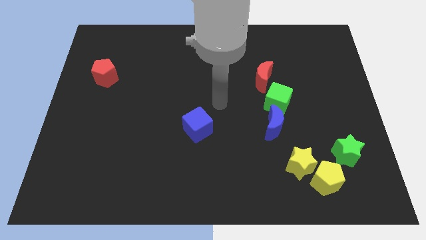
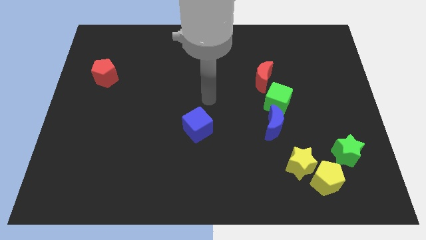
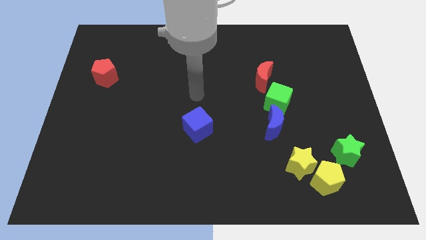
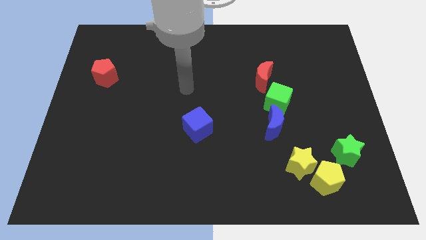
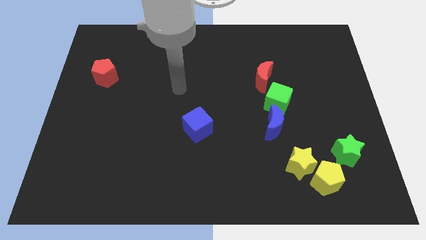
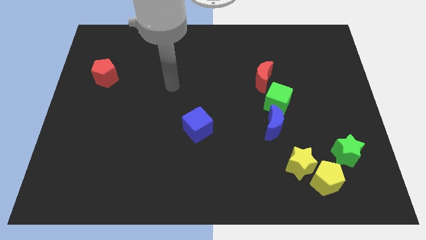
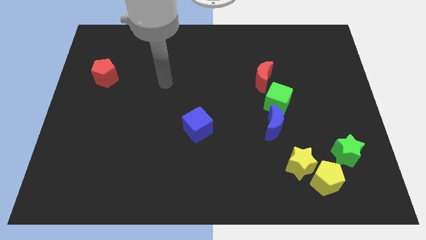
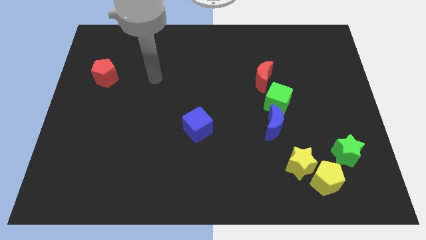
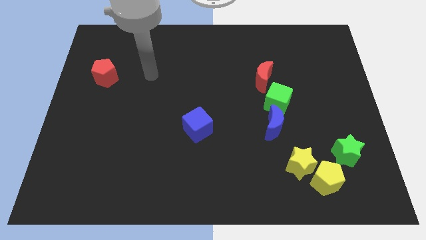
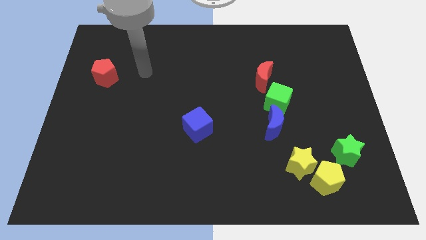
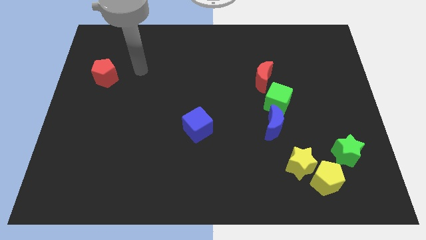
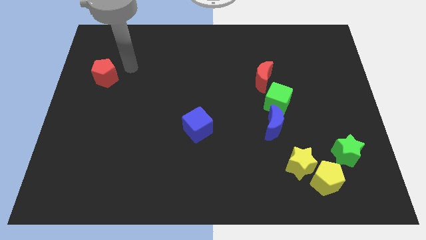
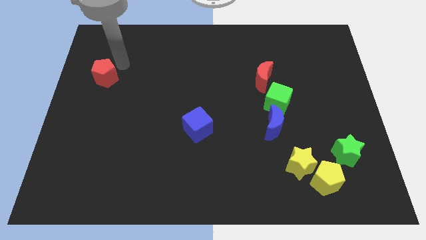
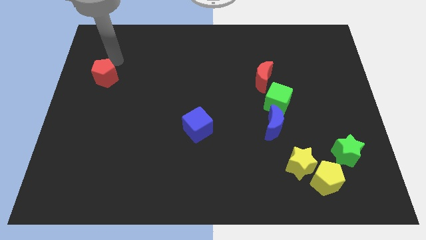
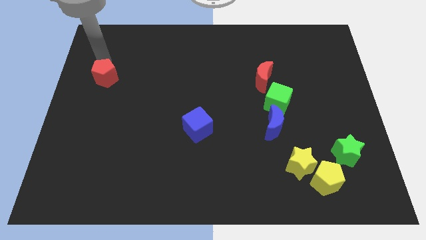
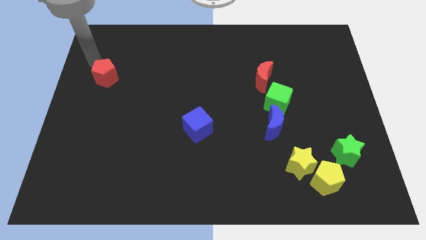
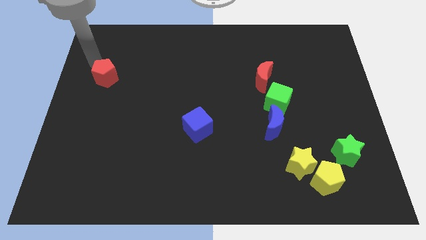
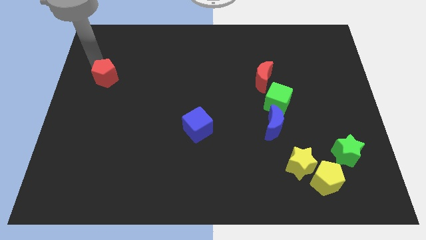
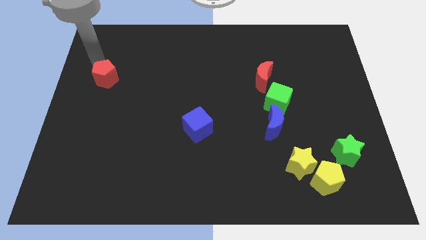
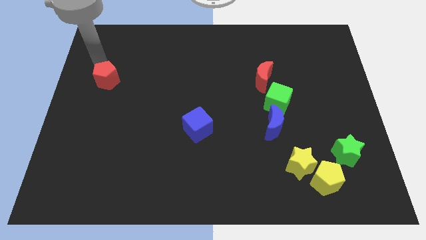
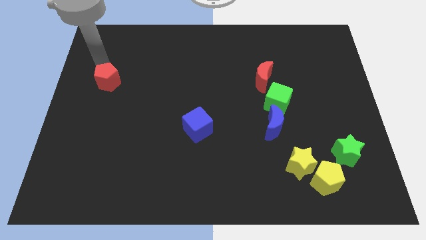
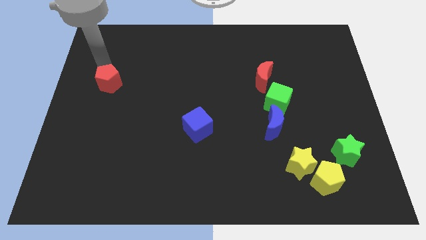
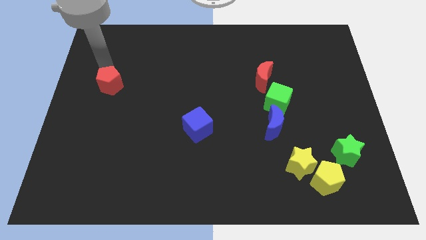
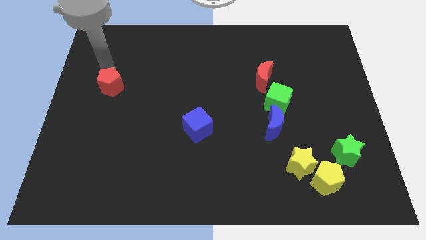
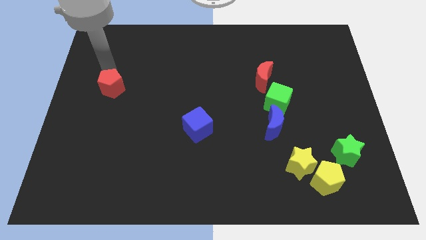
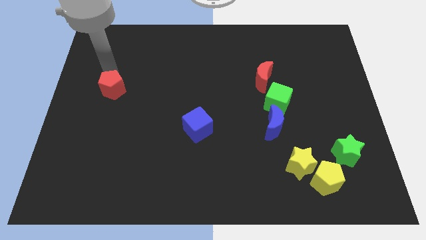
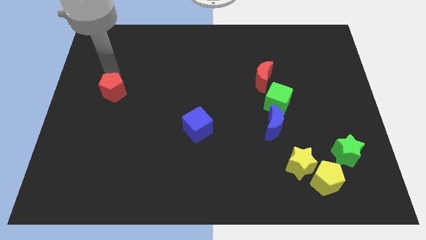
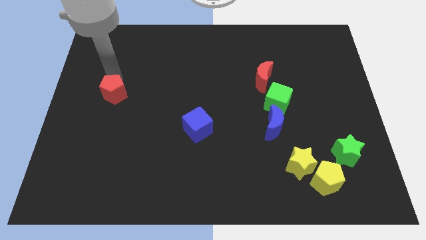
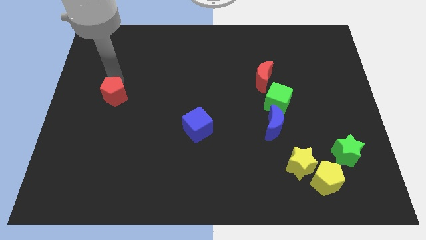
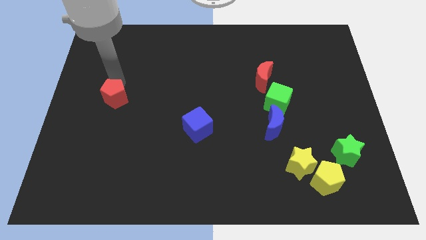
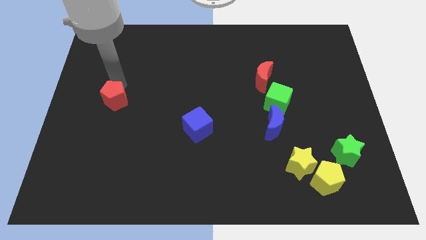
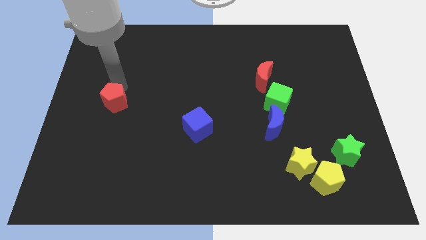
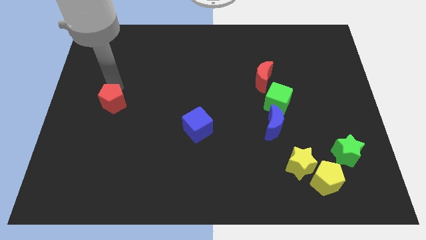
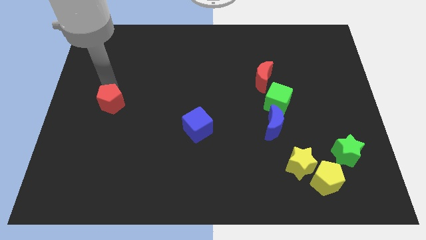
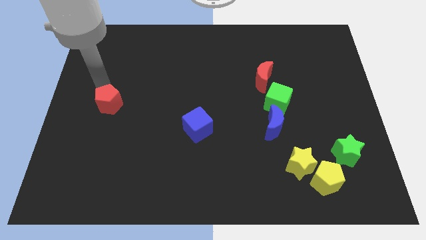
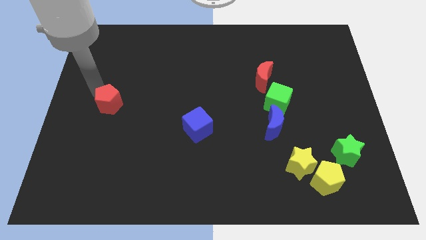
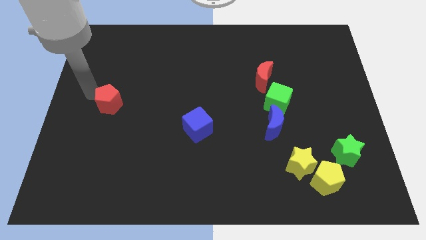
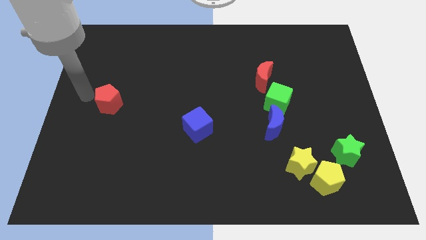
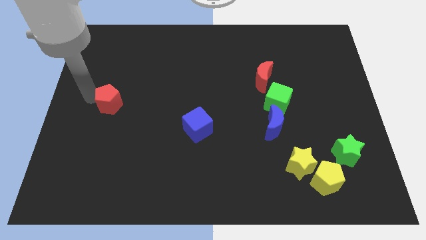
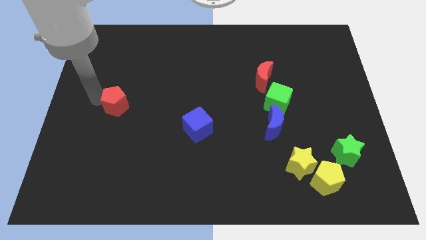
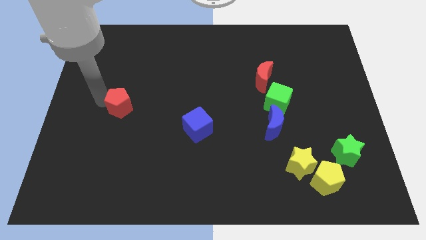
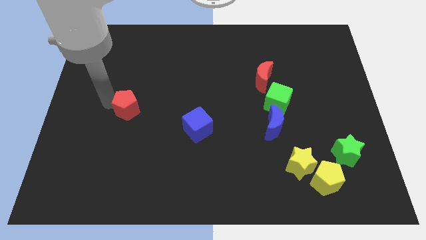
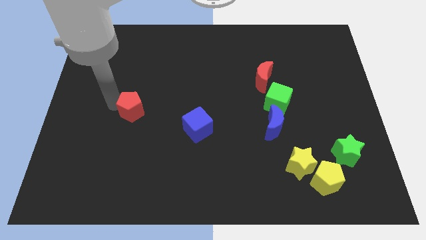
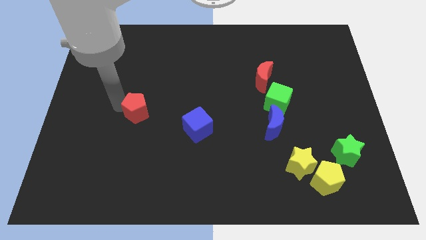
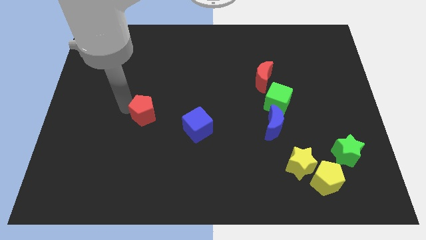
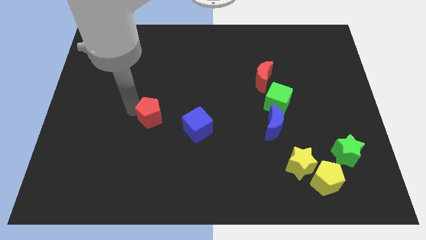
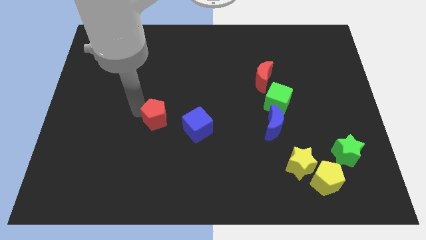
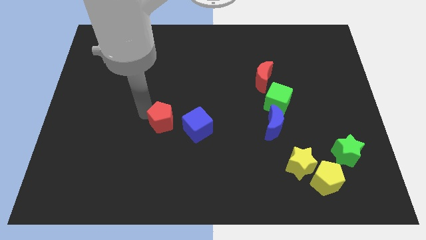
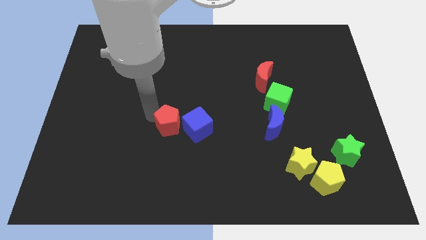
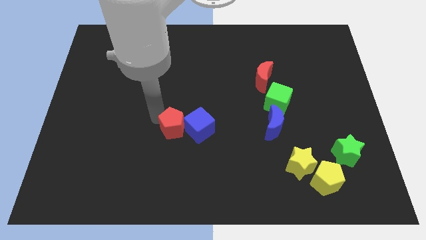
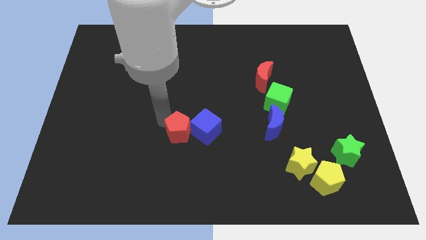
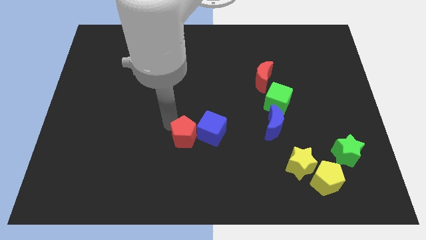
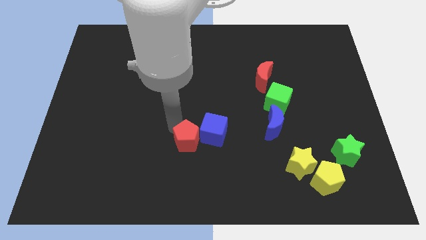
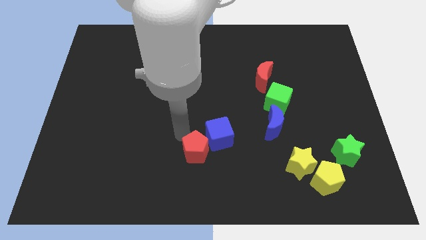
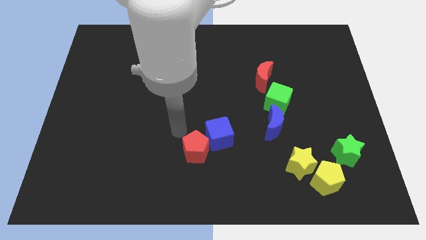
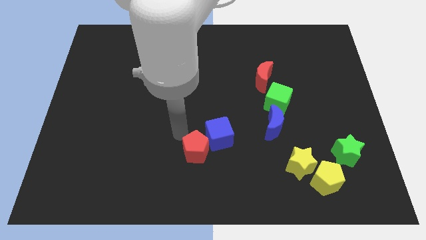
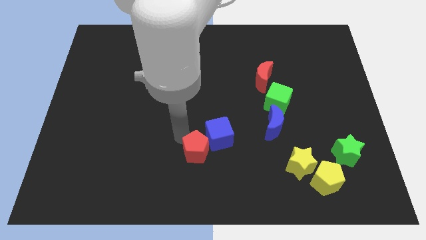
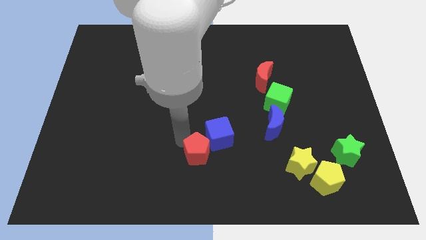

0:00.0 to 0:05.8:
push the red pentagon to the bottom of the blue cube
